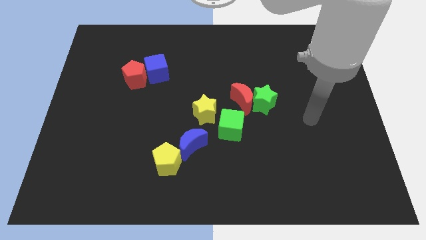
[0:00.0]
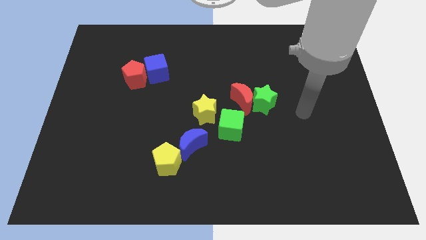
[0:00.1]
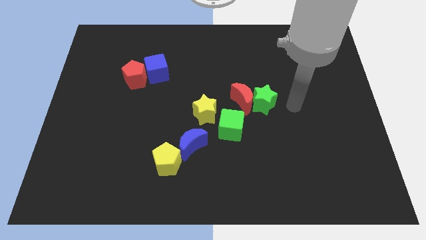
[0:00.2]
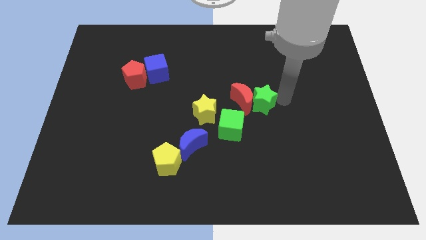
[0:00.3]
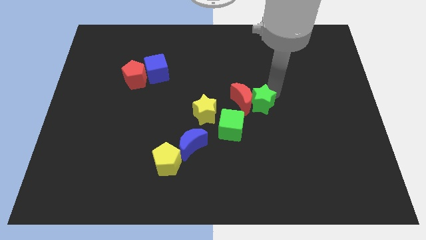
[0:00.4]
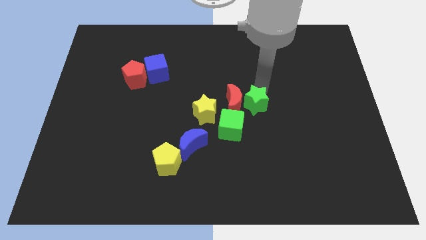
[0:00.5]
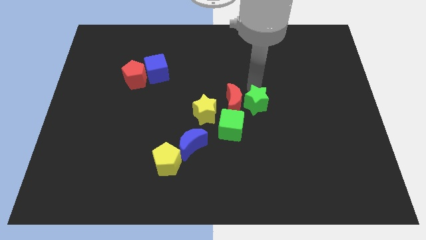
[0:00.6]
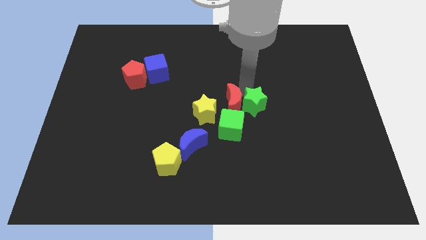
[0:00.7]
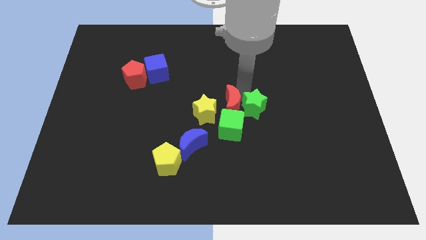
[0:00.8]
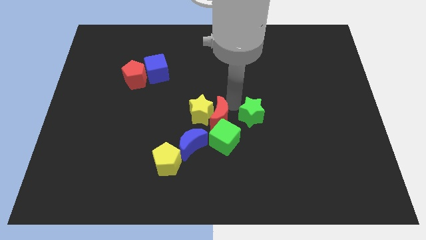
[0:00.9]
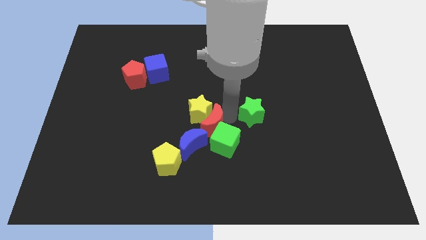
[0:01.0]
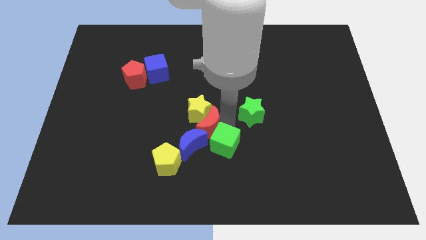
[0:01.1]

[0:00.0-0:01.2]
separate the green star from the red moon

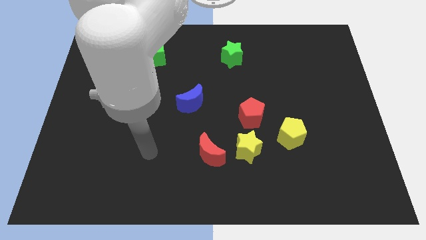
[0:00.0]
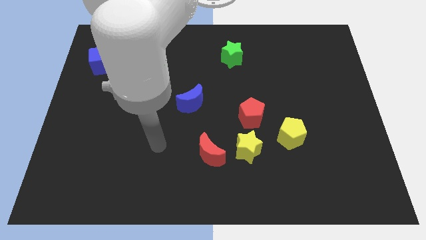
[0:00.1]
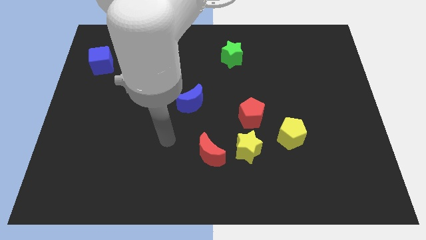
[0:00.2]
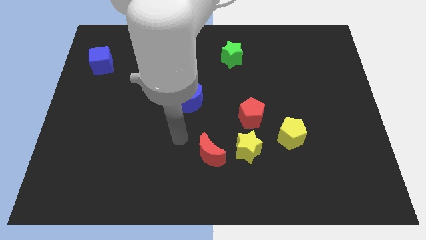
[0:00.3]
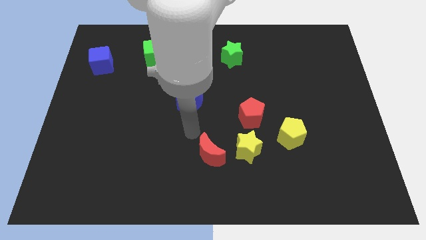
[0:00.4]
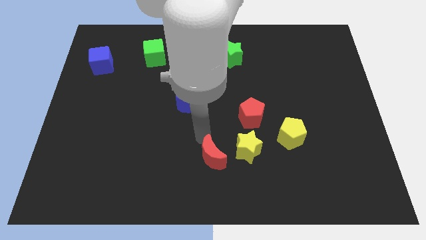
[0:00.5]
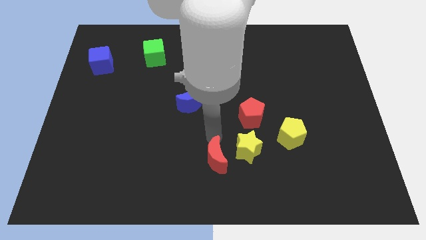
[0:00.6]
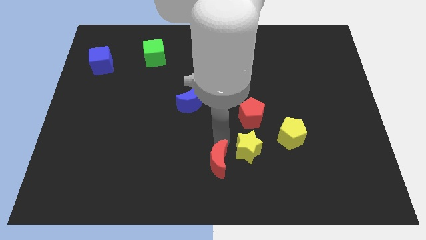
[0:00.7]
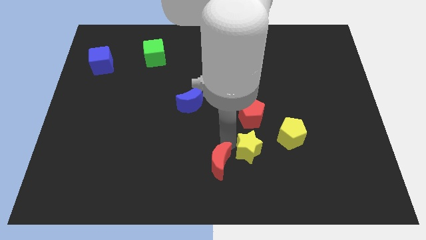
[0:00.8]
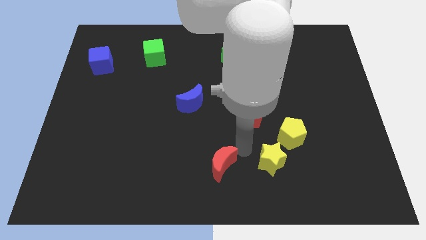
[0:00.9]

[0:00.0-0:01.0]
separate the red moon from the yellow star

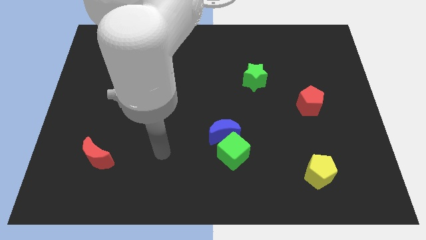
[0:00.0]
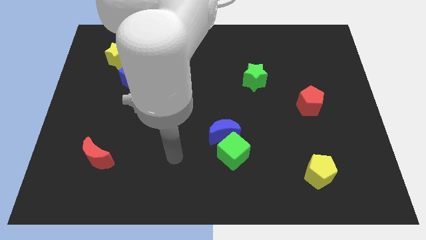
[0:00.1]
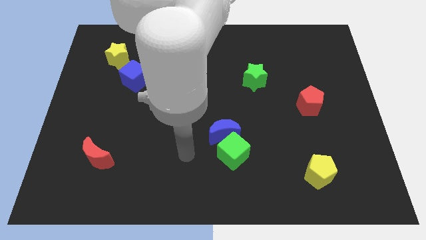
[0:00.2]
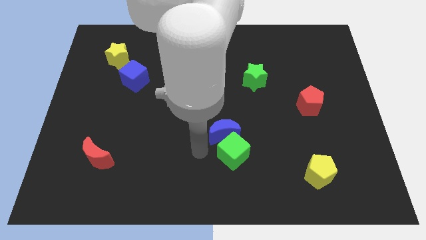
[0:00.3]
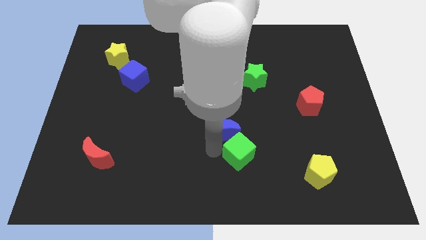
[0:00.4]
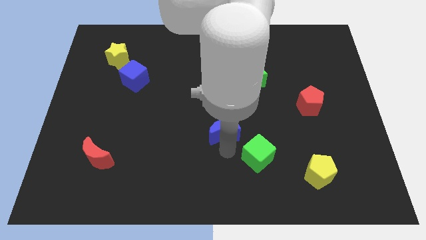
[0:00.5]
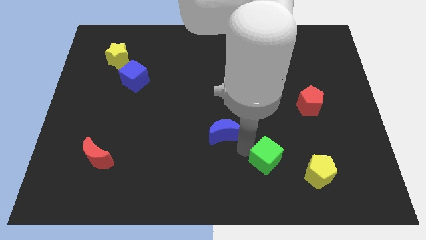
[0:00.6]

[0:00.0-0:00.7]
separate the blue moon from the green cube

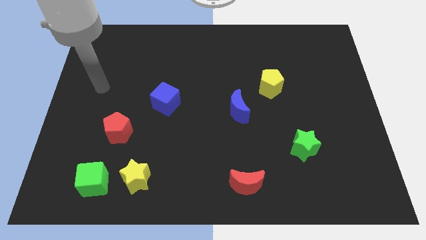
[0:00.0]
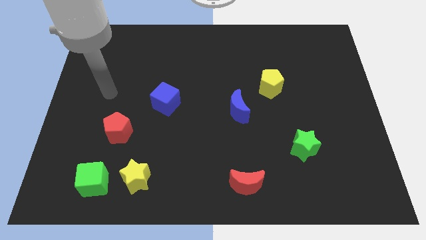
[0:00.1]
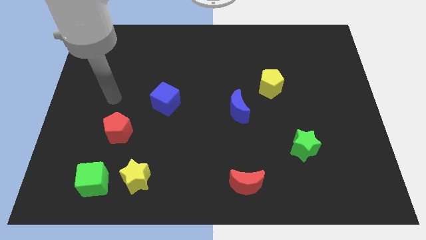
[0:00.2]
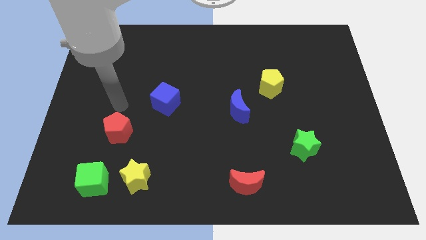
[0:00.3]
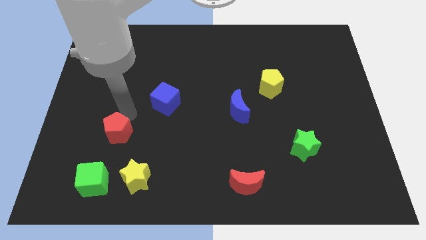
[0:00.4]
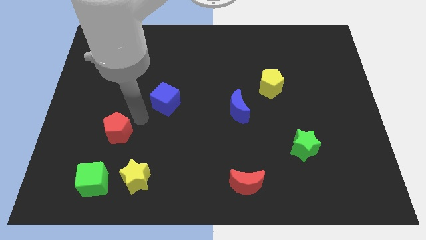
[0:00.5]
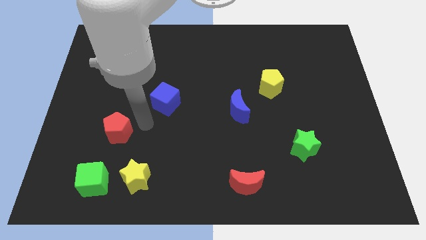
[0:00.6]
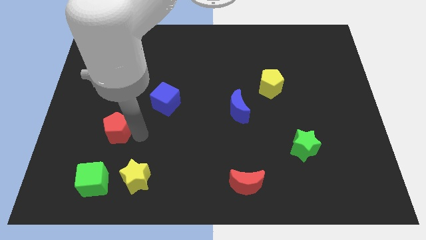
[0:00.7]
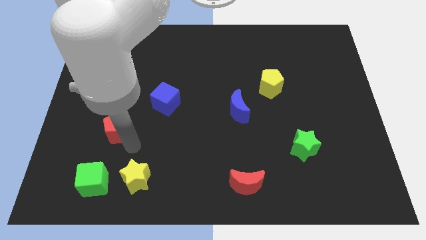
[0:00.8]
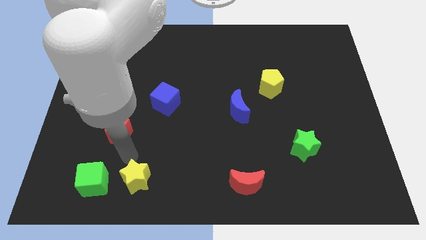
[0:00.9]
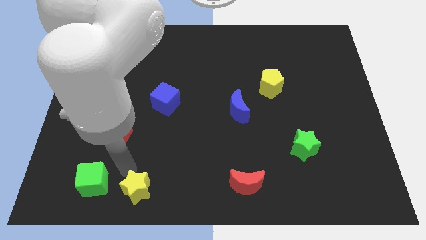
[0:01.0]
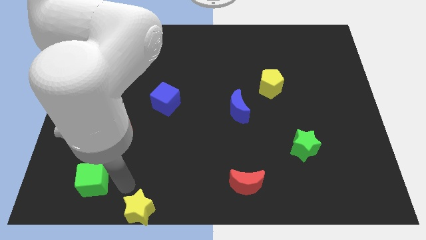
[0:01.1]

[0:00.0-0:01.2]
move the green cube away from the yellow star

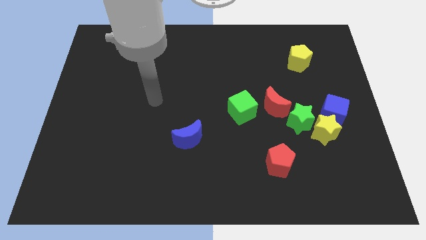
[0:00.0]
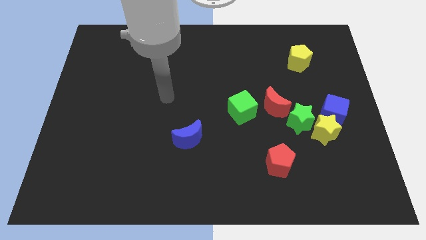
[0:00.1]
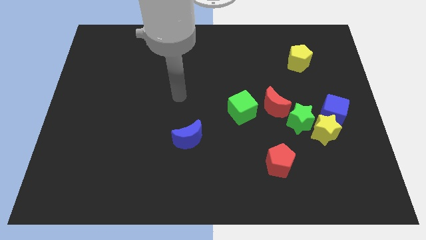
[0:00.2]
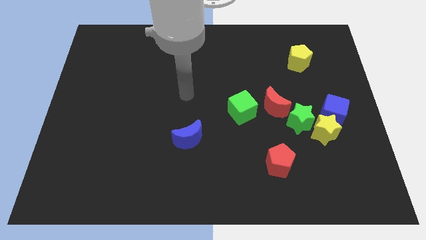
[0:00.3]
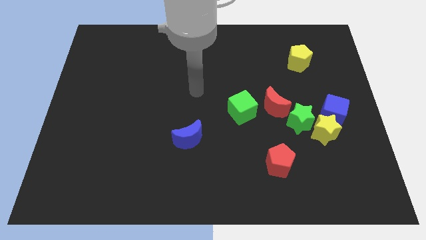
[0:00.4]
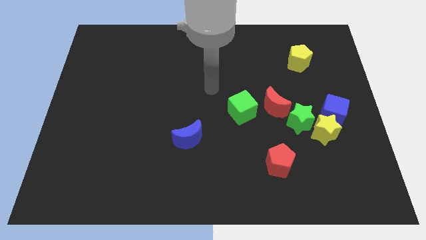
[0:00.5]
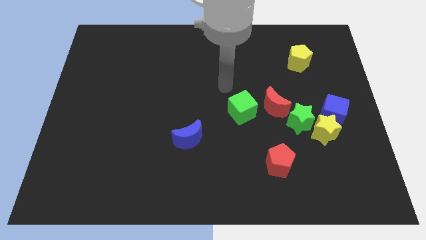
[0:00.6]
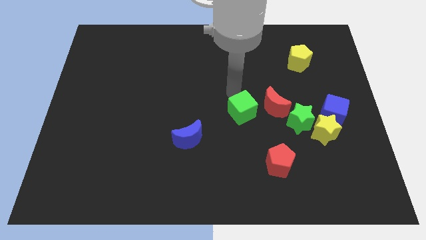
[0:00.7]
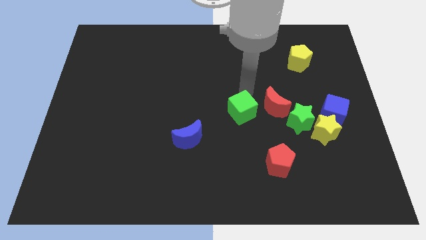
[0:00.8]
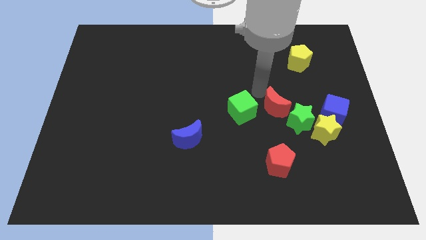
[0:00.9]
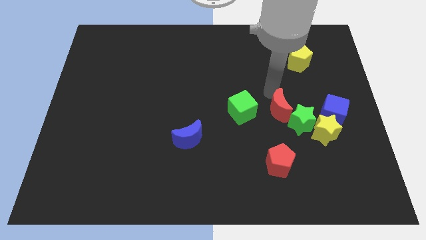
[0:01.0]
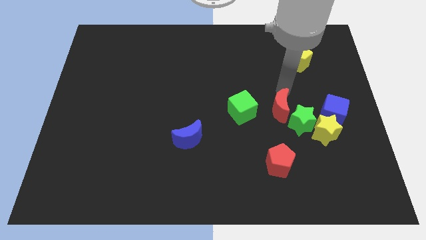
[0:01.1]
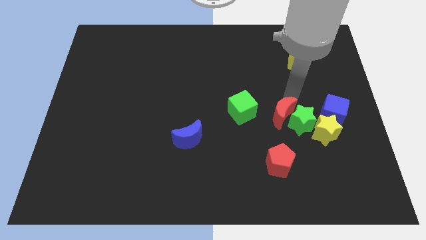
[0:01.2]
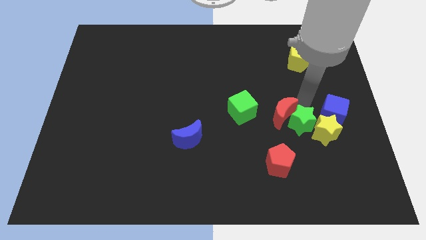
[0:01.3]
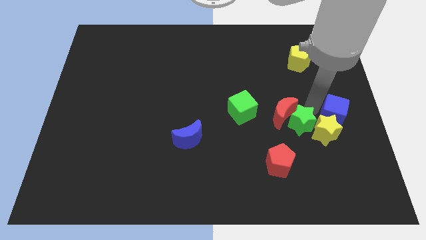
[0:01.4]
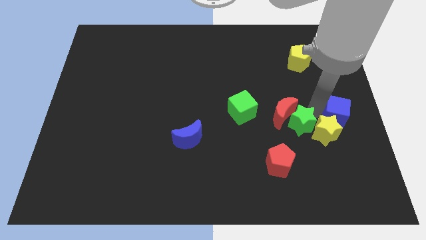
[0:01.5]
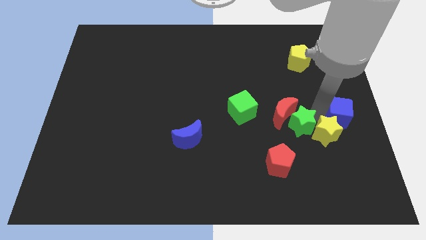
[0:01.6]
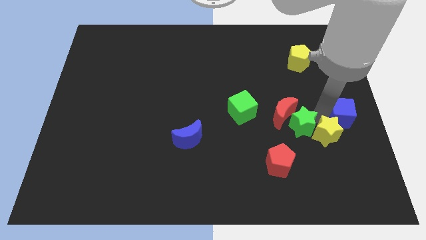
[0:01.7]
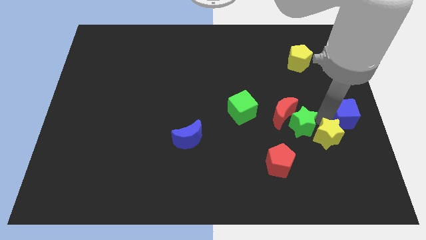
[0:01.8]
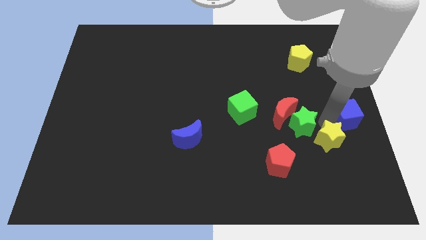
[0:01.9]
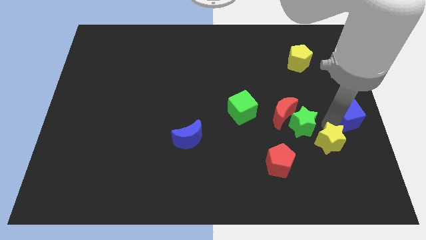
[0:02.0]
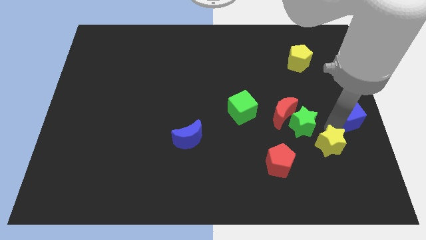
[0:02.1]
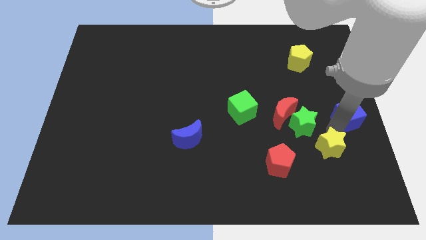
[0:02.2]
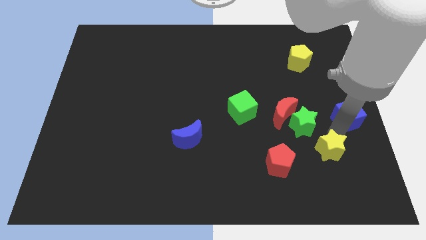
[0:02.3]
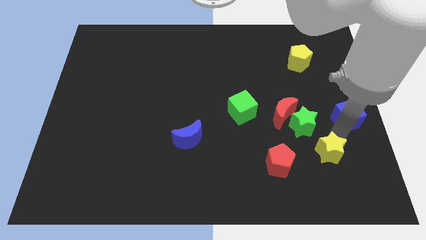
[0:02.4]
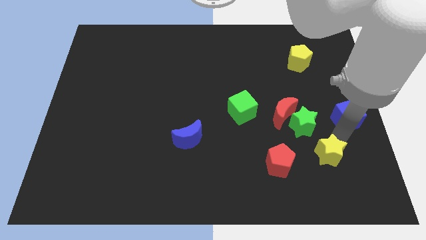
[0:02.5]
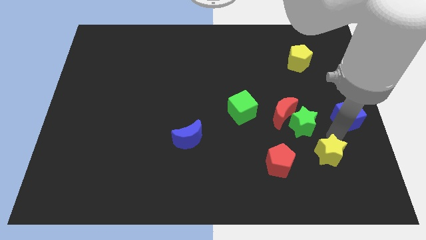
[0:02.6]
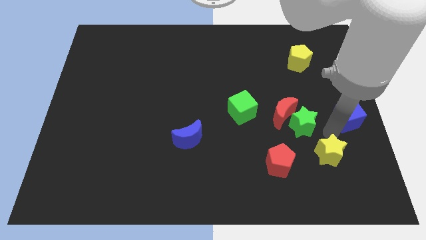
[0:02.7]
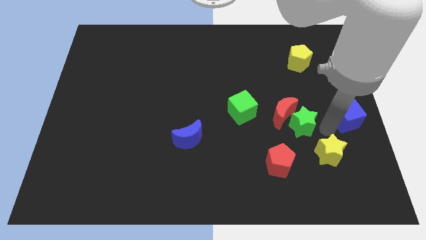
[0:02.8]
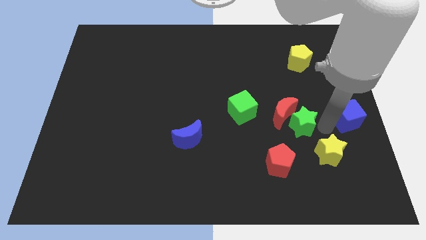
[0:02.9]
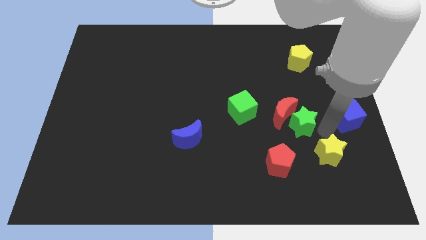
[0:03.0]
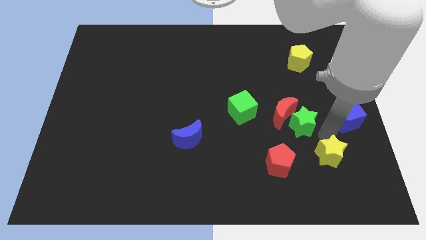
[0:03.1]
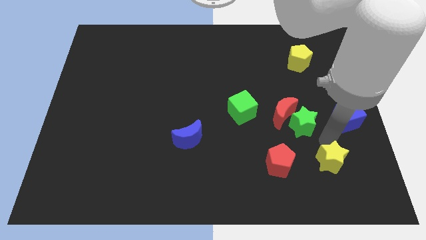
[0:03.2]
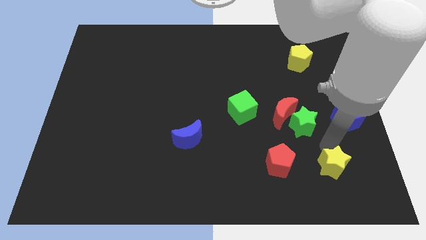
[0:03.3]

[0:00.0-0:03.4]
separate the yellow star from the green star and blue cube

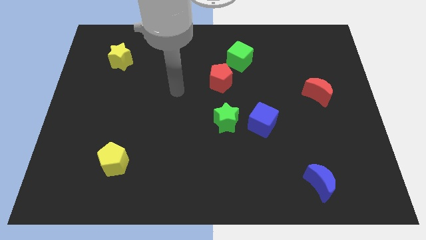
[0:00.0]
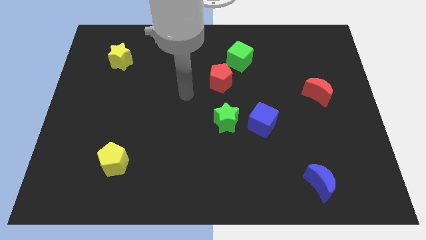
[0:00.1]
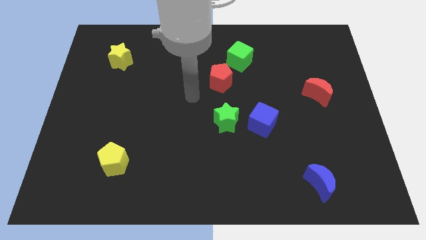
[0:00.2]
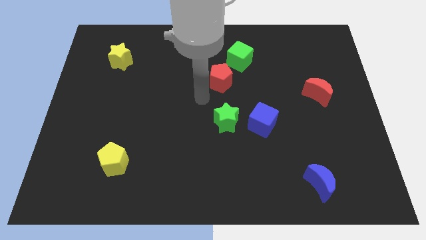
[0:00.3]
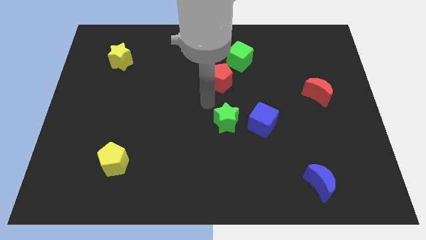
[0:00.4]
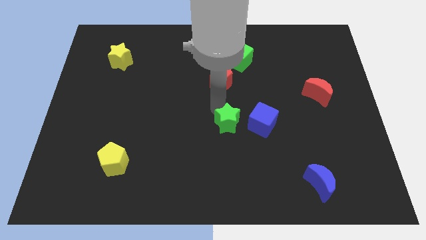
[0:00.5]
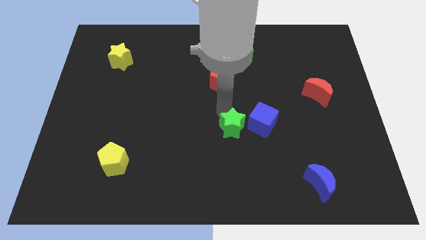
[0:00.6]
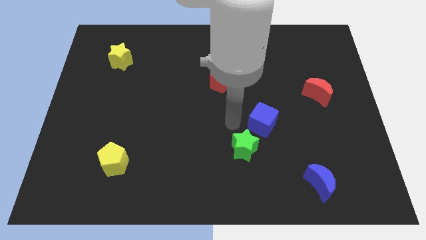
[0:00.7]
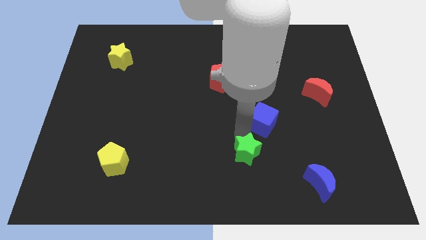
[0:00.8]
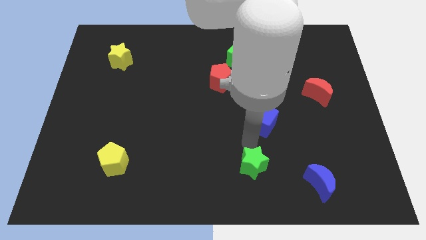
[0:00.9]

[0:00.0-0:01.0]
separate the blue cube from the green star

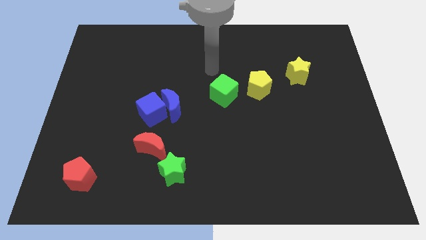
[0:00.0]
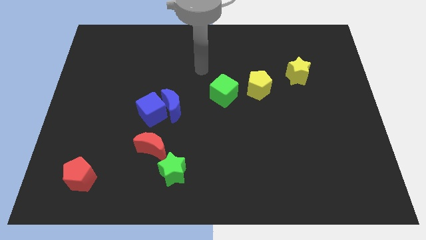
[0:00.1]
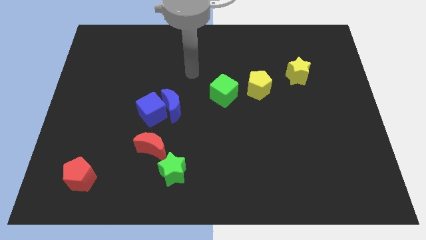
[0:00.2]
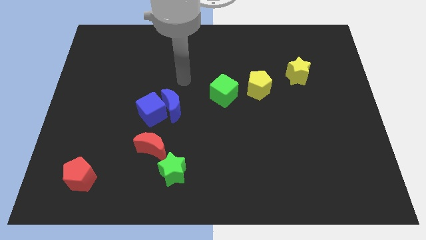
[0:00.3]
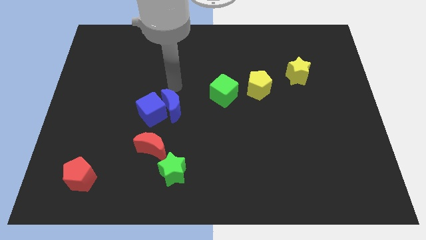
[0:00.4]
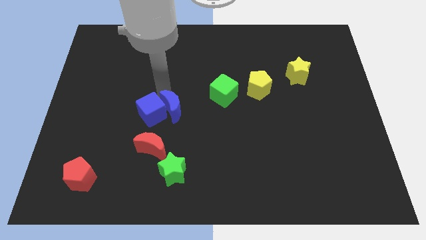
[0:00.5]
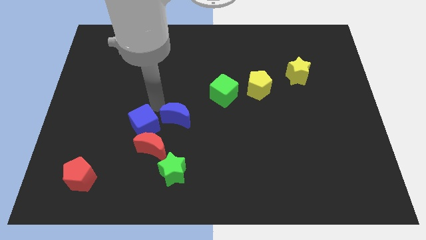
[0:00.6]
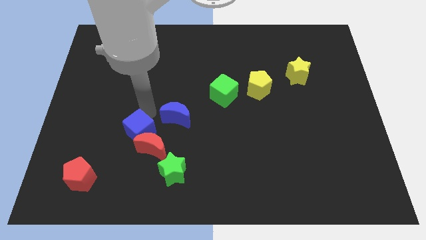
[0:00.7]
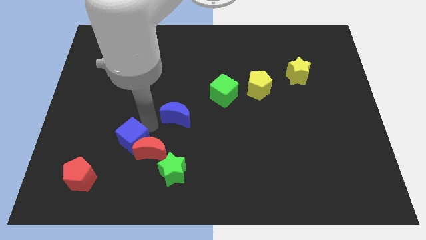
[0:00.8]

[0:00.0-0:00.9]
move the blue moon away from the blue cube
